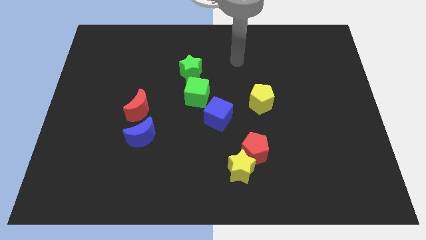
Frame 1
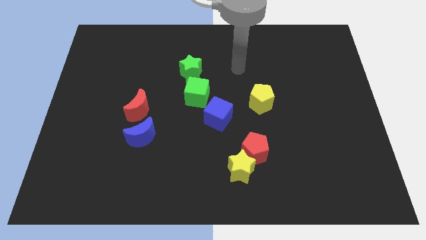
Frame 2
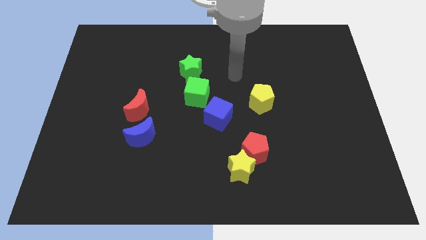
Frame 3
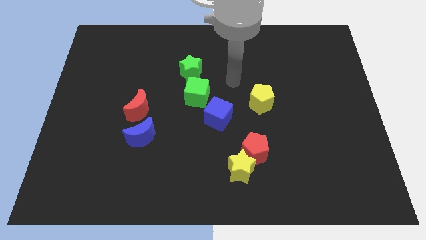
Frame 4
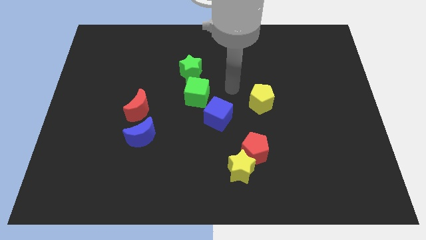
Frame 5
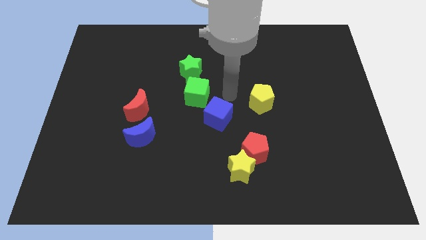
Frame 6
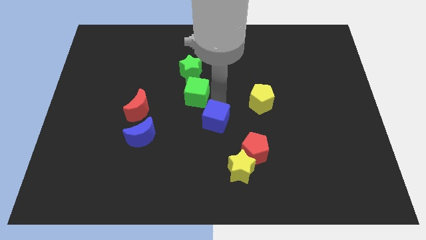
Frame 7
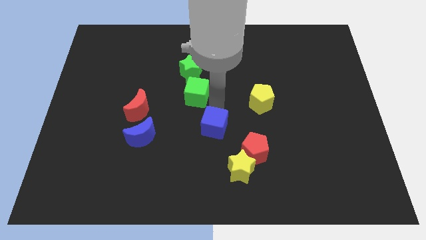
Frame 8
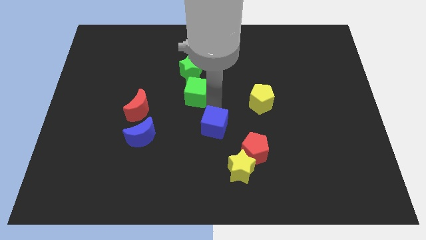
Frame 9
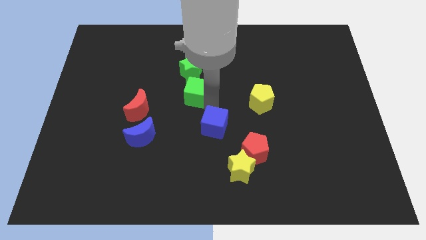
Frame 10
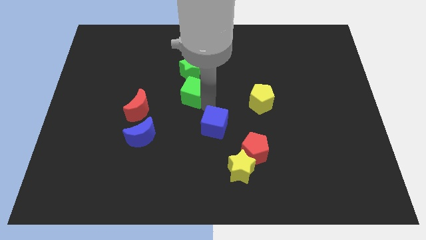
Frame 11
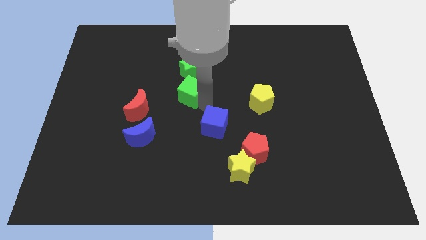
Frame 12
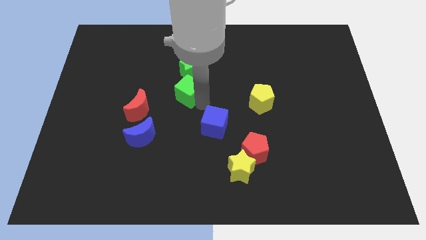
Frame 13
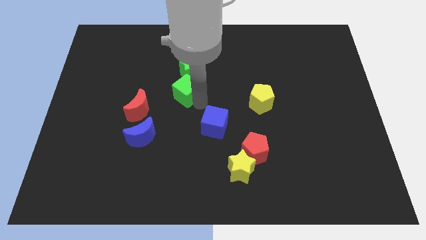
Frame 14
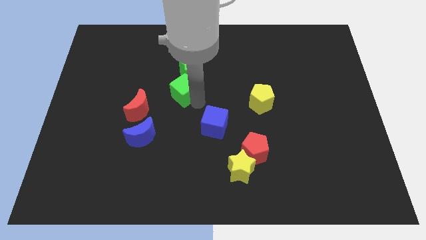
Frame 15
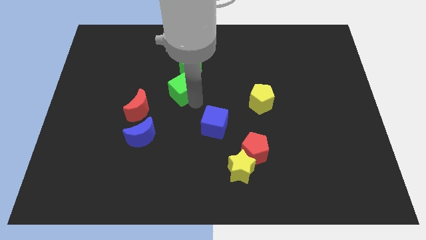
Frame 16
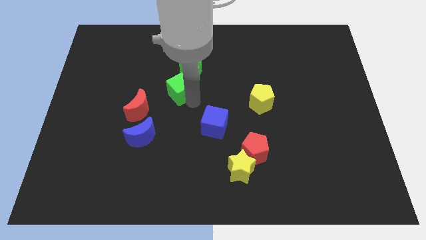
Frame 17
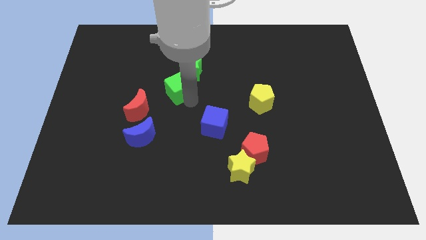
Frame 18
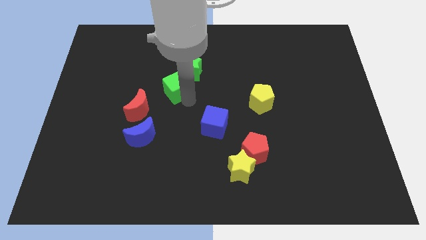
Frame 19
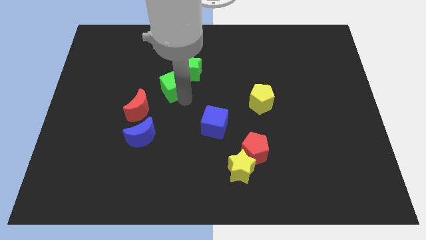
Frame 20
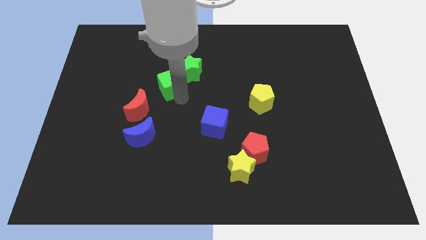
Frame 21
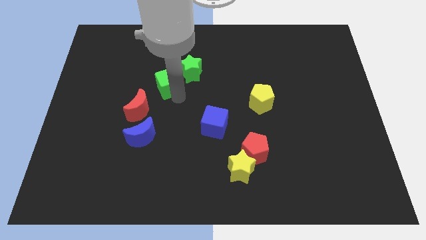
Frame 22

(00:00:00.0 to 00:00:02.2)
slide the green cube upwards and then left somewhat

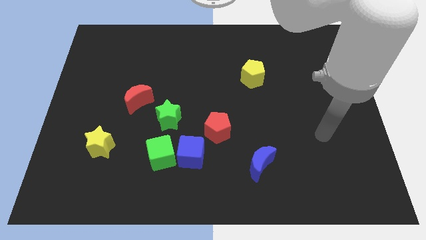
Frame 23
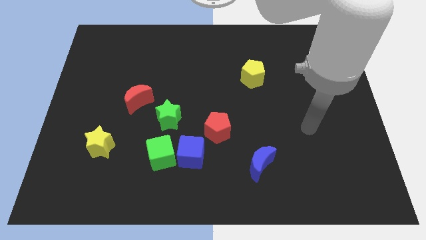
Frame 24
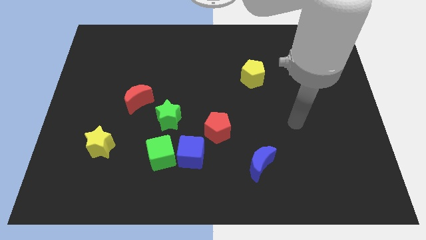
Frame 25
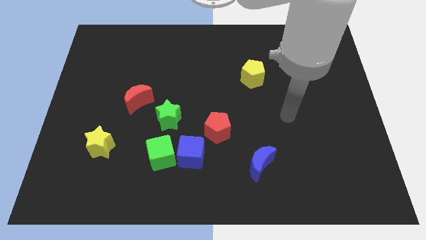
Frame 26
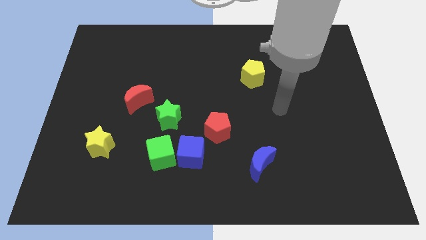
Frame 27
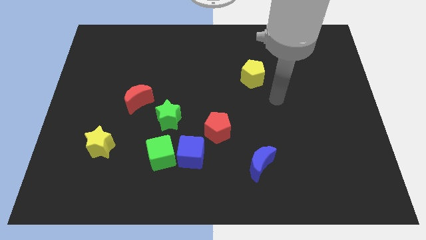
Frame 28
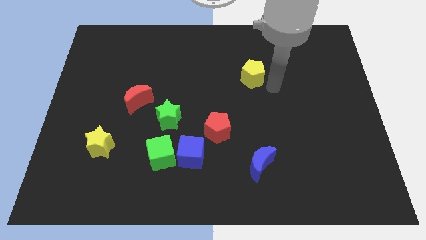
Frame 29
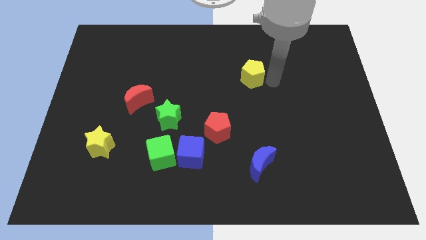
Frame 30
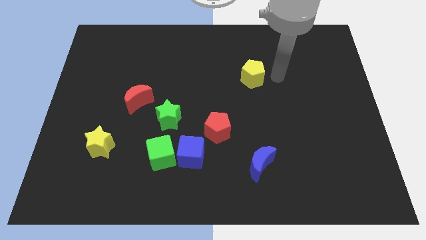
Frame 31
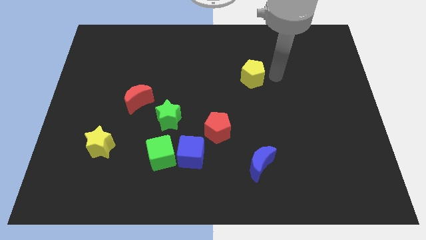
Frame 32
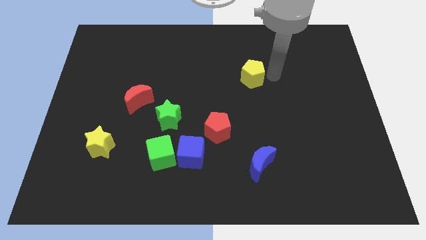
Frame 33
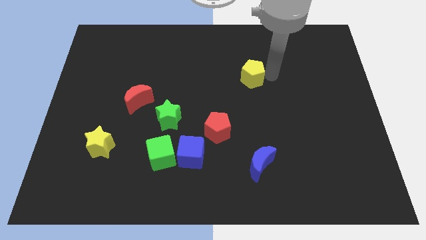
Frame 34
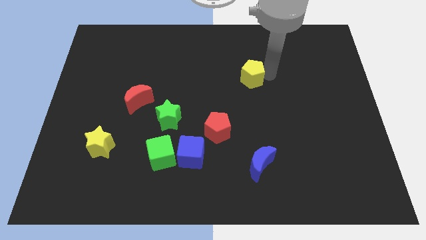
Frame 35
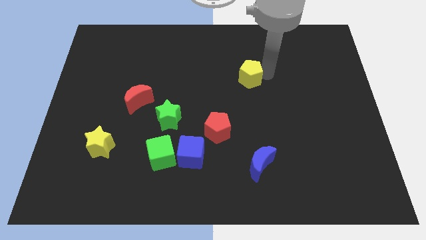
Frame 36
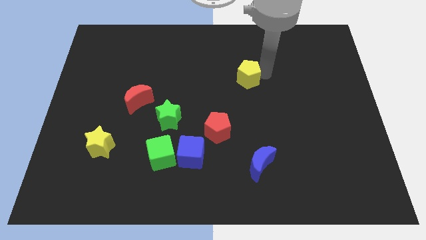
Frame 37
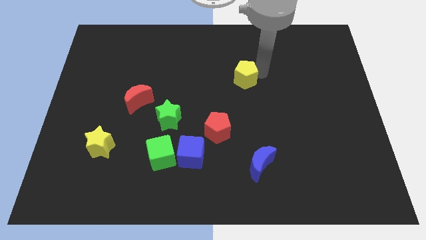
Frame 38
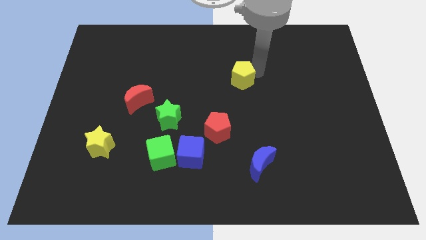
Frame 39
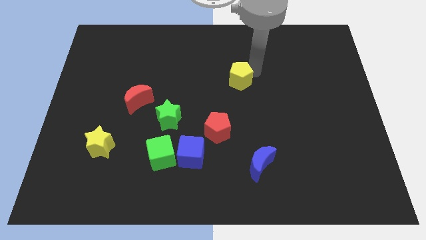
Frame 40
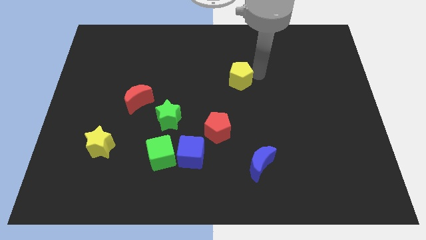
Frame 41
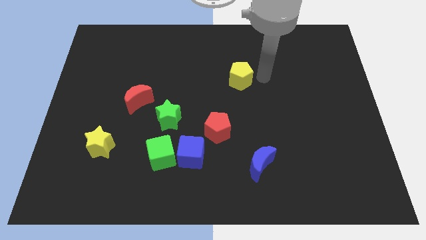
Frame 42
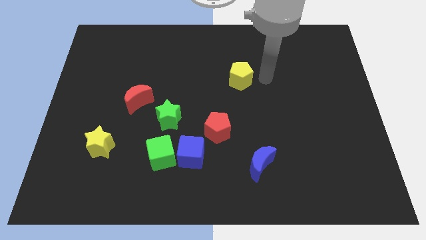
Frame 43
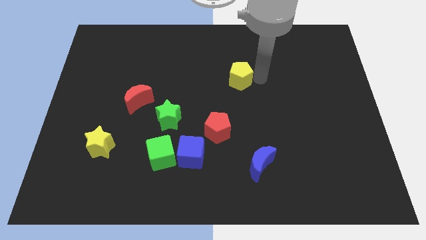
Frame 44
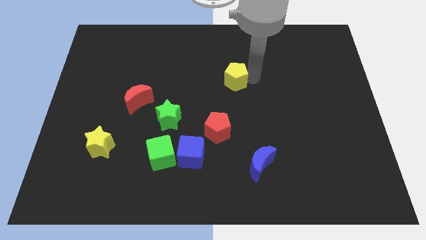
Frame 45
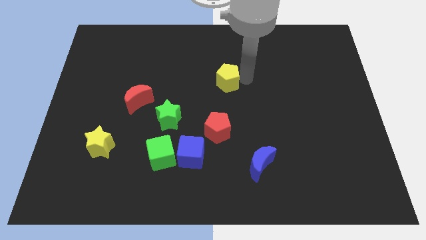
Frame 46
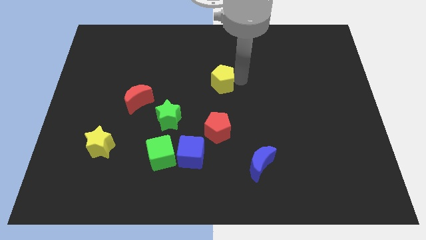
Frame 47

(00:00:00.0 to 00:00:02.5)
slide the yellow pentagon somewhat left

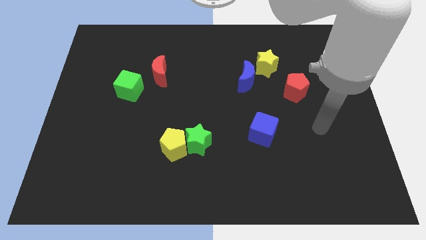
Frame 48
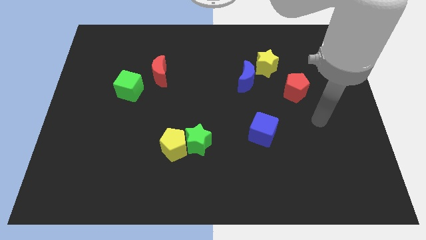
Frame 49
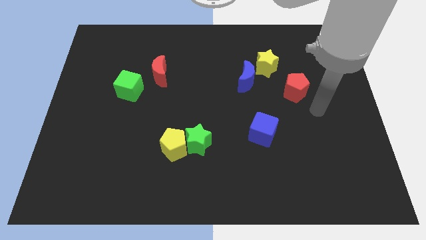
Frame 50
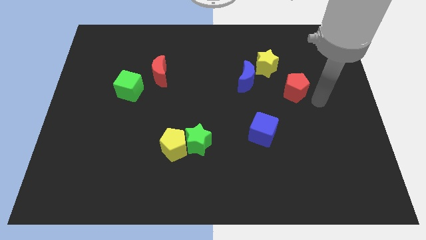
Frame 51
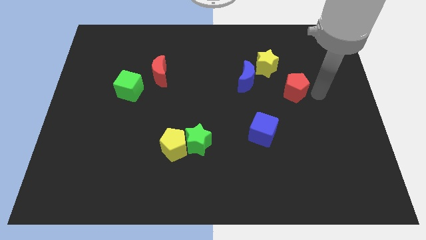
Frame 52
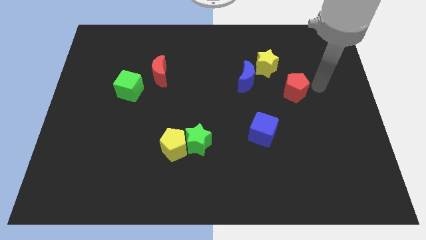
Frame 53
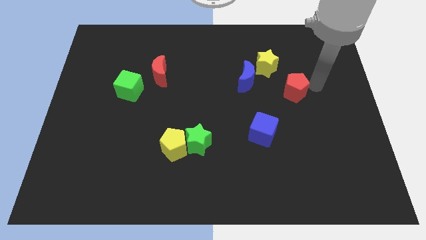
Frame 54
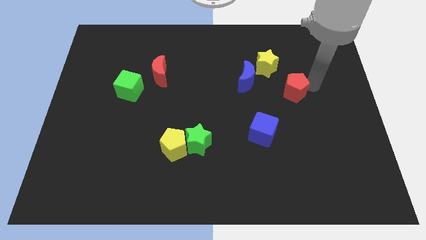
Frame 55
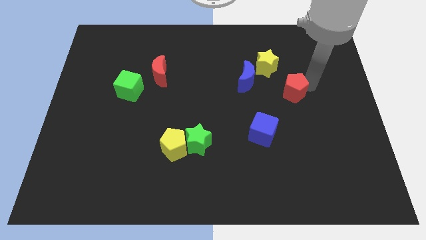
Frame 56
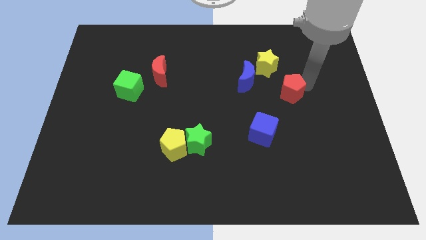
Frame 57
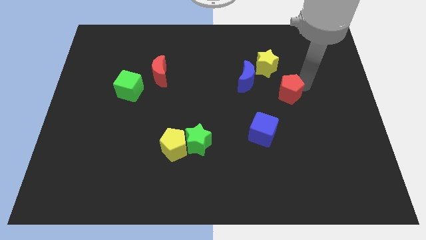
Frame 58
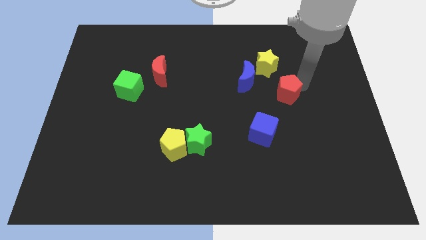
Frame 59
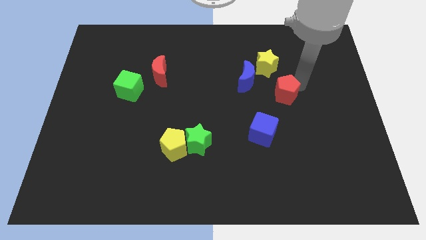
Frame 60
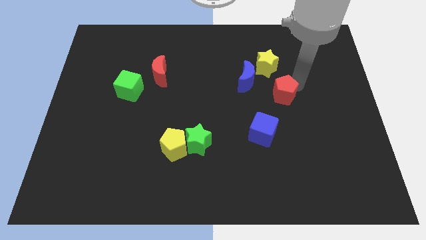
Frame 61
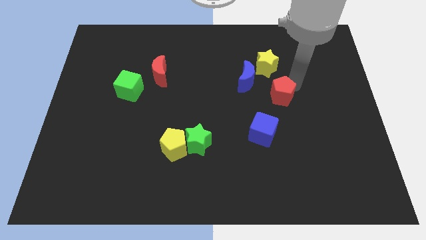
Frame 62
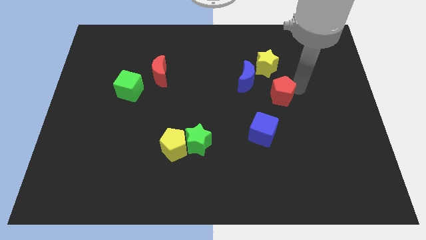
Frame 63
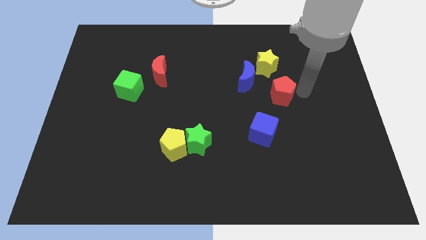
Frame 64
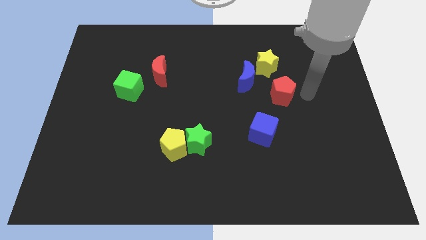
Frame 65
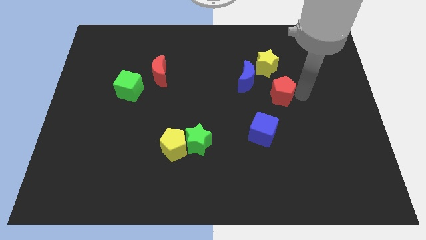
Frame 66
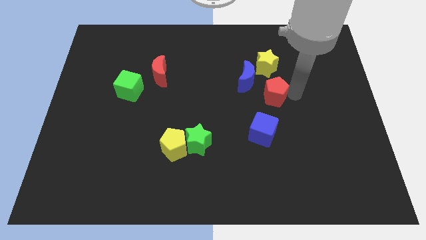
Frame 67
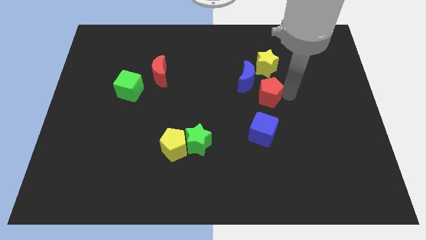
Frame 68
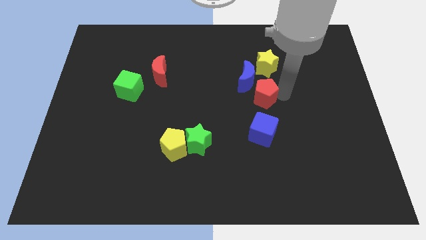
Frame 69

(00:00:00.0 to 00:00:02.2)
slightly slide the red pentagon to the left

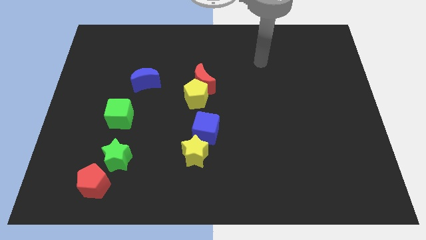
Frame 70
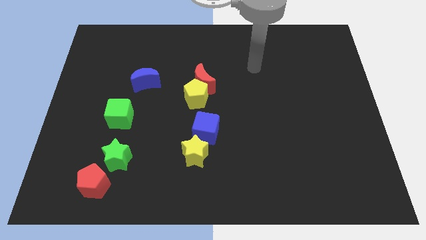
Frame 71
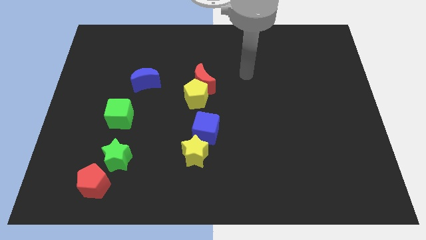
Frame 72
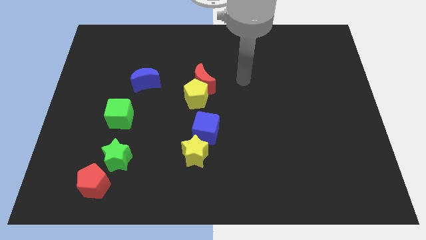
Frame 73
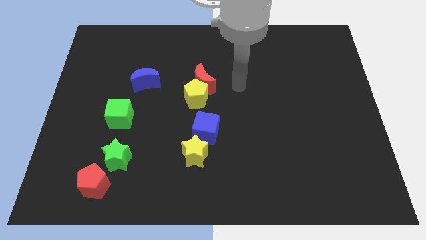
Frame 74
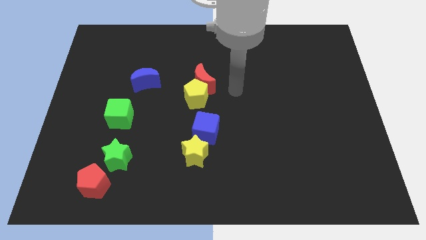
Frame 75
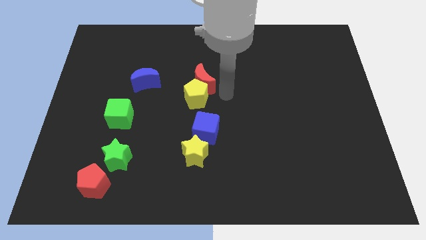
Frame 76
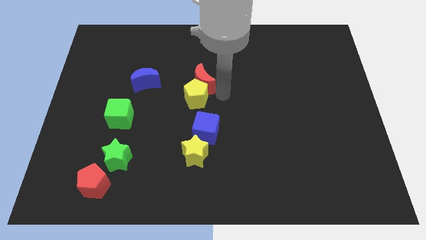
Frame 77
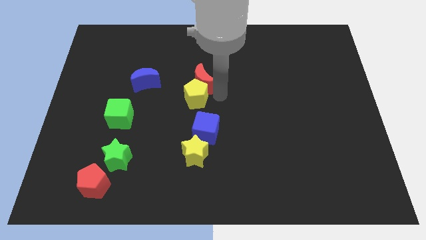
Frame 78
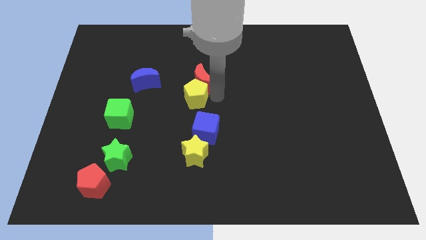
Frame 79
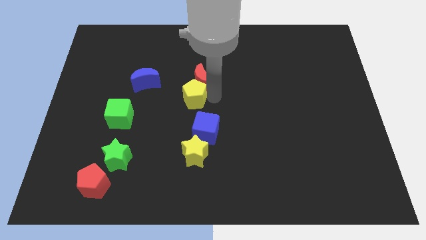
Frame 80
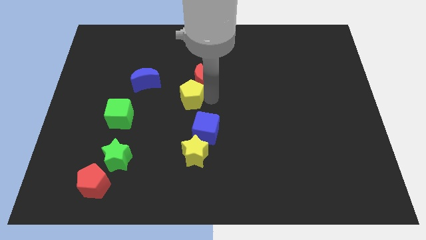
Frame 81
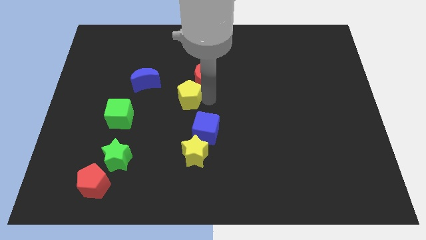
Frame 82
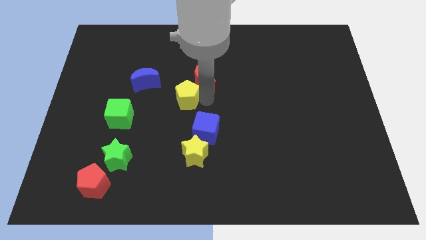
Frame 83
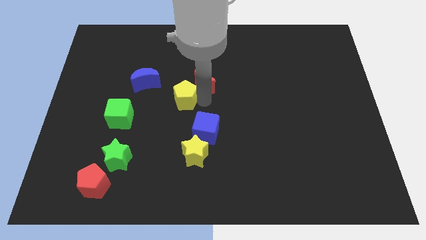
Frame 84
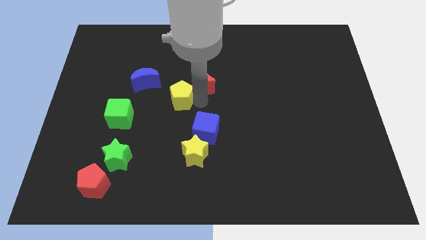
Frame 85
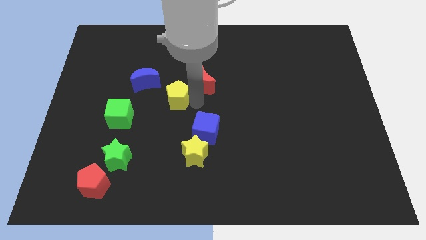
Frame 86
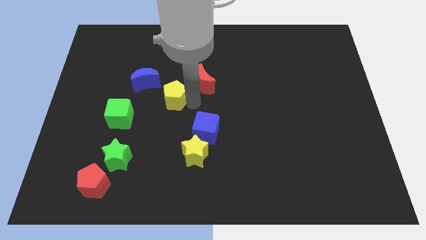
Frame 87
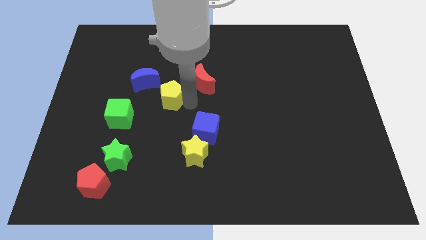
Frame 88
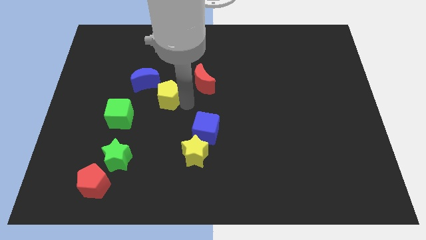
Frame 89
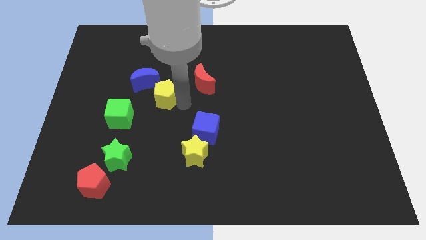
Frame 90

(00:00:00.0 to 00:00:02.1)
slide the yellow pentagon to the left a little
